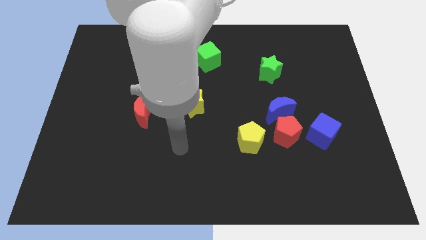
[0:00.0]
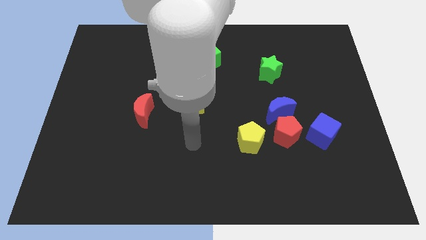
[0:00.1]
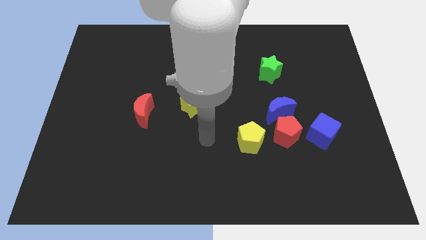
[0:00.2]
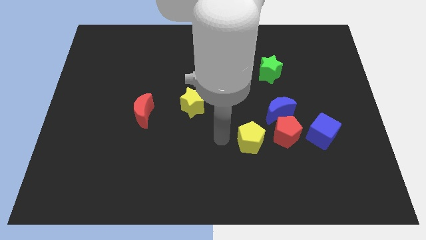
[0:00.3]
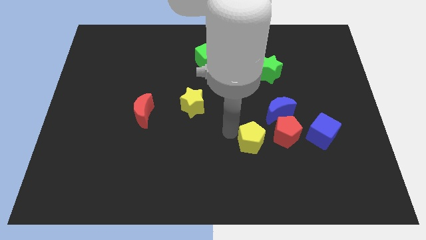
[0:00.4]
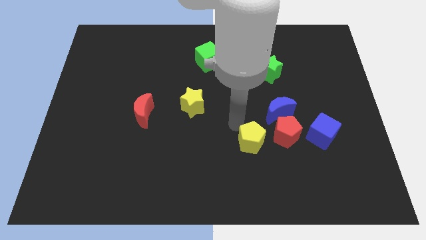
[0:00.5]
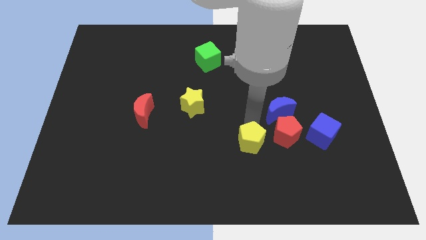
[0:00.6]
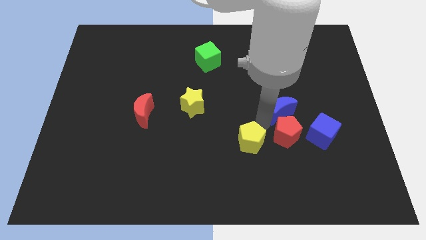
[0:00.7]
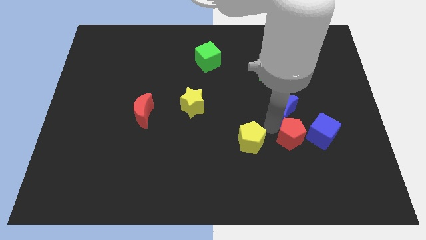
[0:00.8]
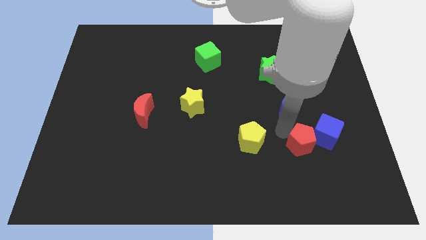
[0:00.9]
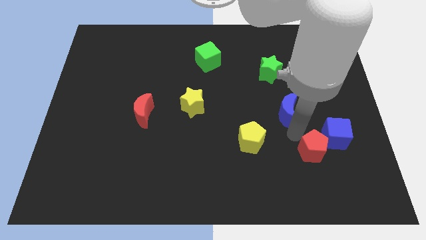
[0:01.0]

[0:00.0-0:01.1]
move the blue moon away from the red pentagon

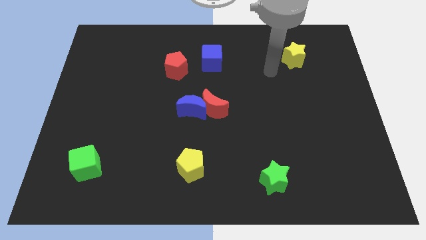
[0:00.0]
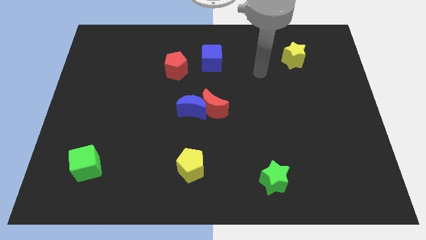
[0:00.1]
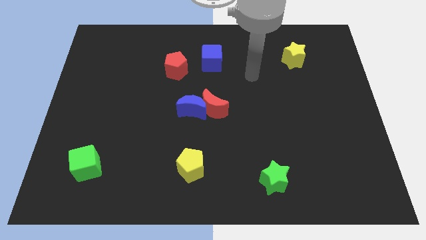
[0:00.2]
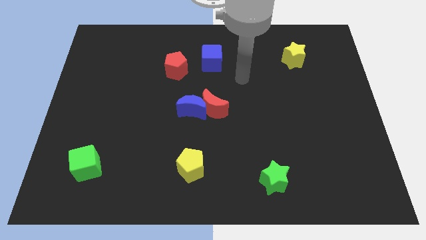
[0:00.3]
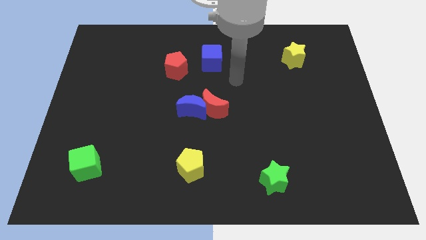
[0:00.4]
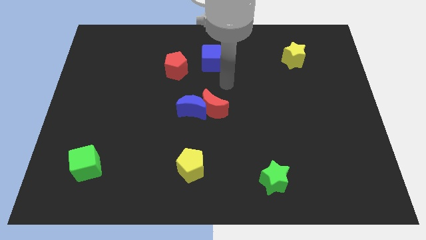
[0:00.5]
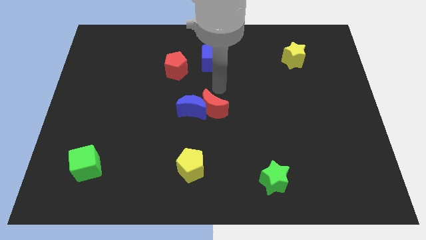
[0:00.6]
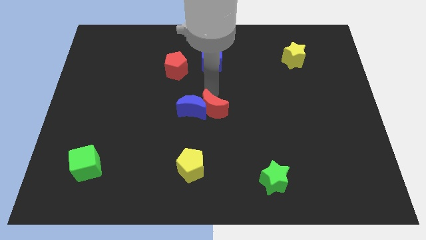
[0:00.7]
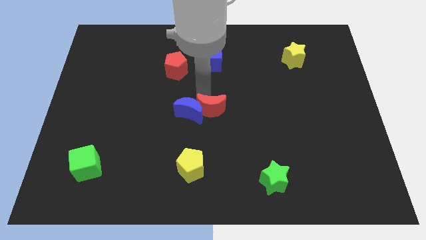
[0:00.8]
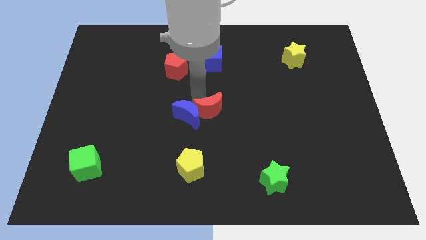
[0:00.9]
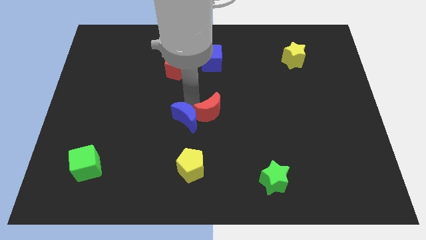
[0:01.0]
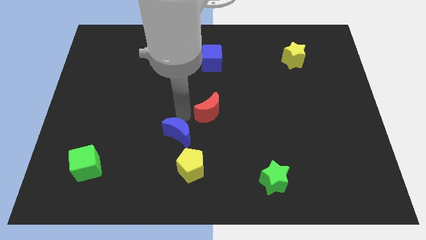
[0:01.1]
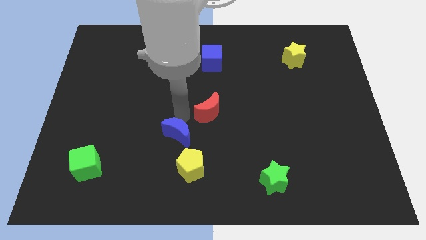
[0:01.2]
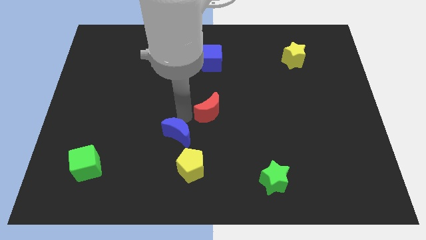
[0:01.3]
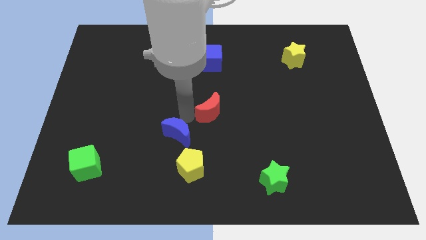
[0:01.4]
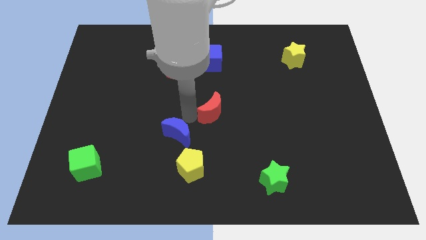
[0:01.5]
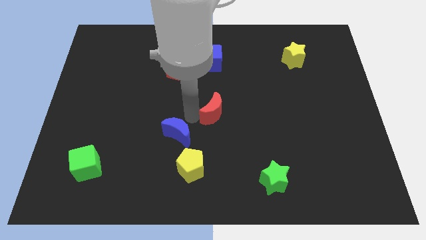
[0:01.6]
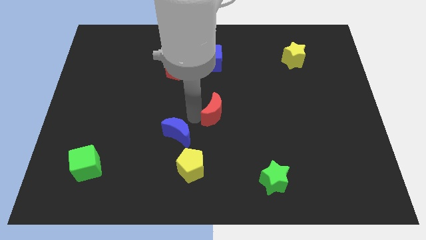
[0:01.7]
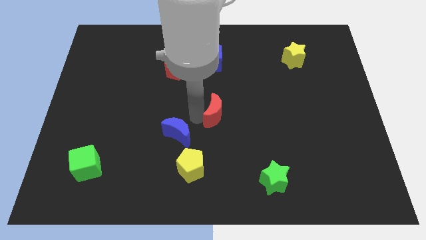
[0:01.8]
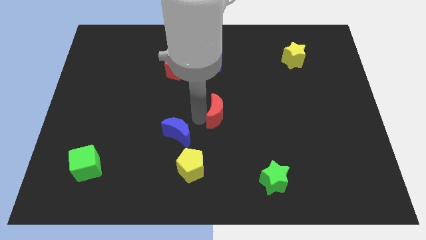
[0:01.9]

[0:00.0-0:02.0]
move the red moon away from the blue moon

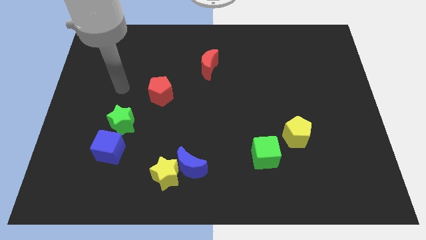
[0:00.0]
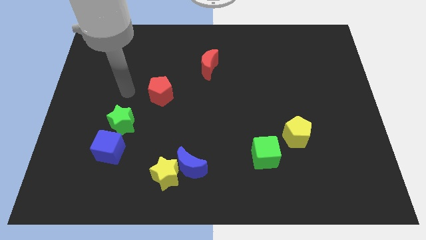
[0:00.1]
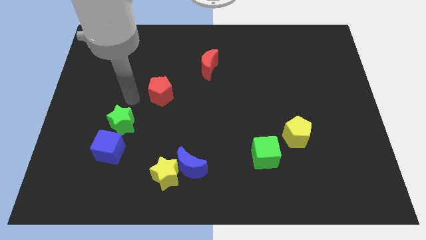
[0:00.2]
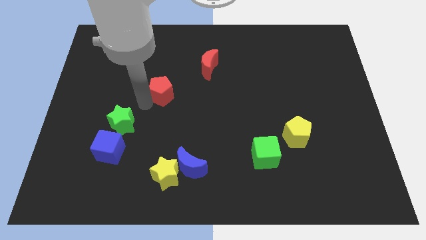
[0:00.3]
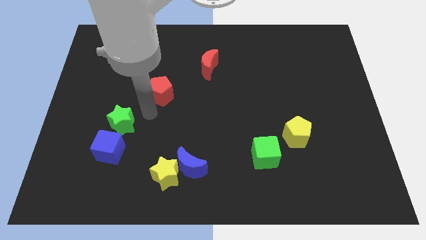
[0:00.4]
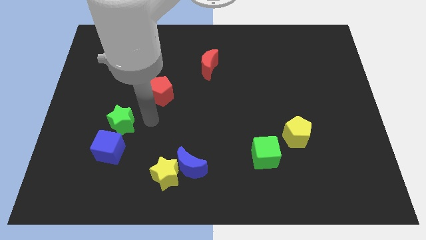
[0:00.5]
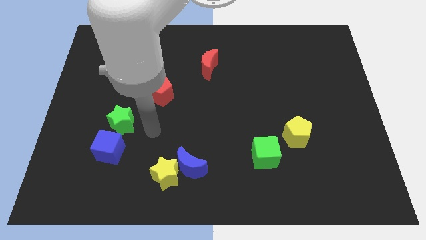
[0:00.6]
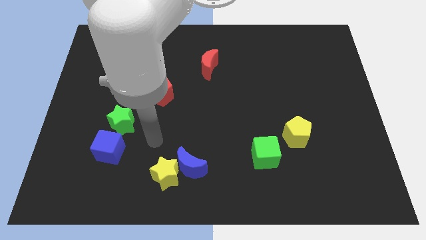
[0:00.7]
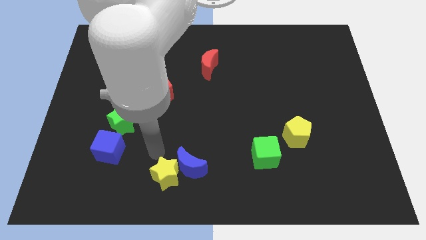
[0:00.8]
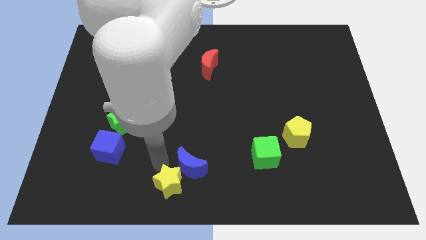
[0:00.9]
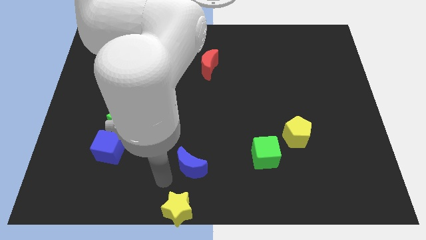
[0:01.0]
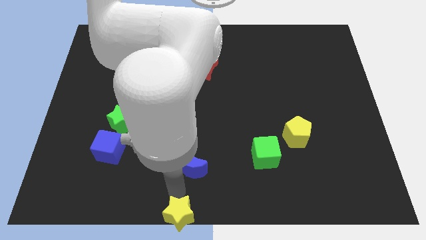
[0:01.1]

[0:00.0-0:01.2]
pull the blue moon apart from the yellow star

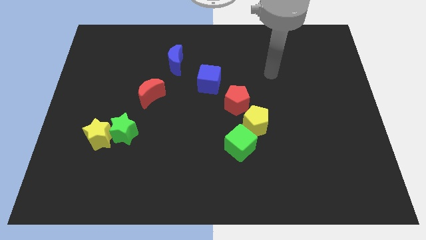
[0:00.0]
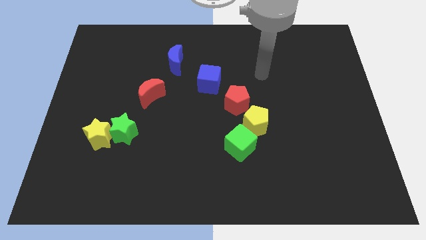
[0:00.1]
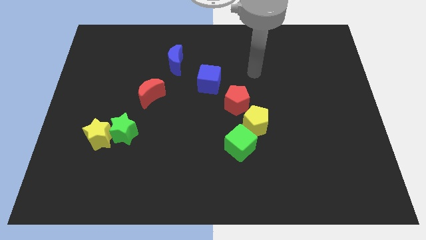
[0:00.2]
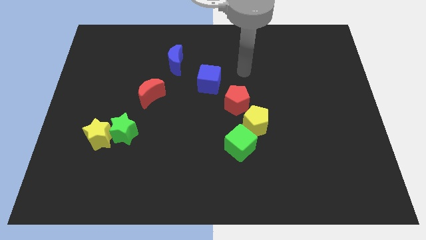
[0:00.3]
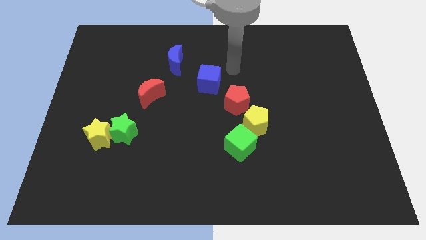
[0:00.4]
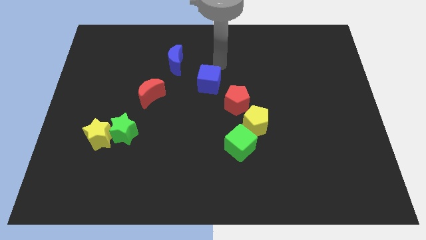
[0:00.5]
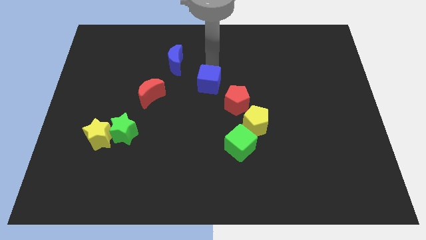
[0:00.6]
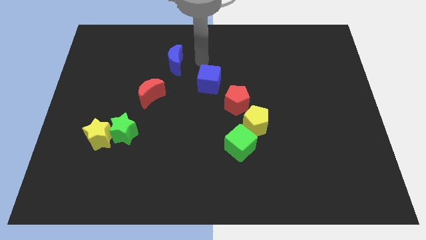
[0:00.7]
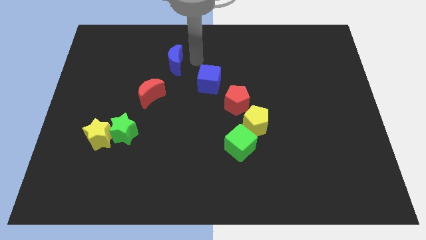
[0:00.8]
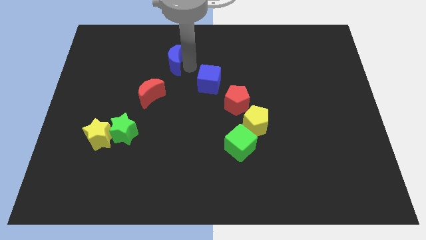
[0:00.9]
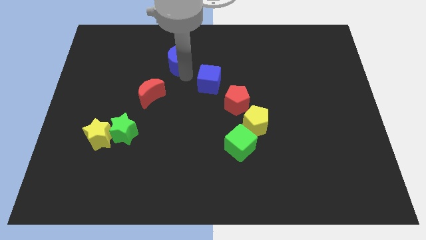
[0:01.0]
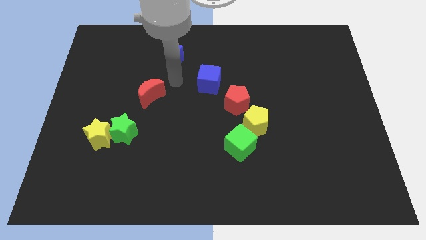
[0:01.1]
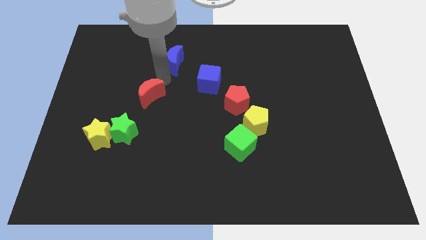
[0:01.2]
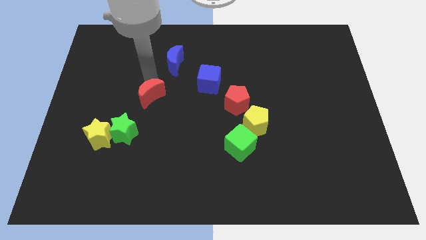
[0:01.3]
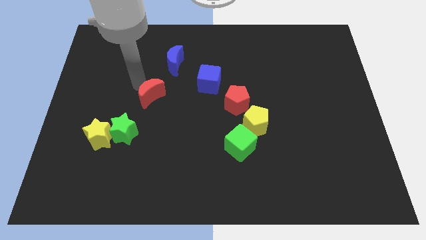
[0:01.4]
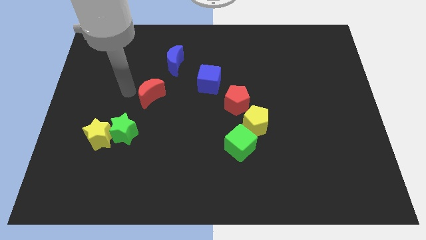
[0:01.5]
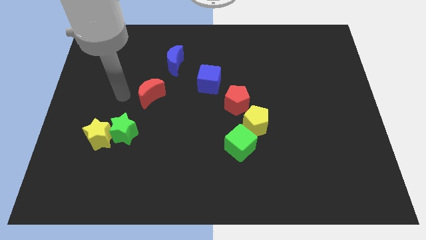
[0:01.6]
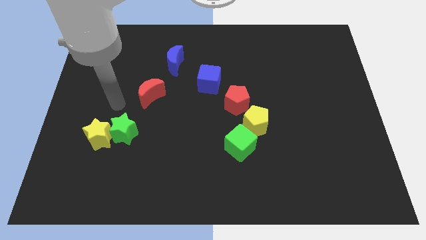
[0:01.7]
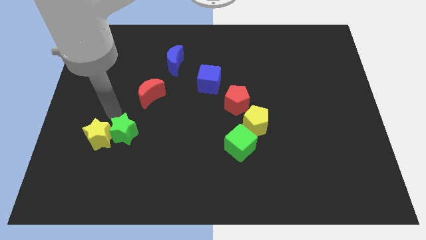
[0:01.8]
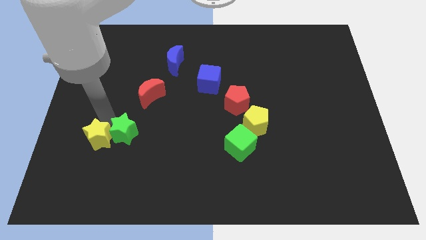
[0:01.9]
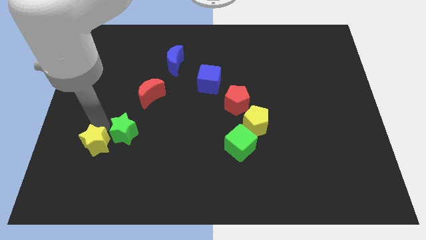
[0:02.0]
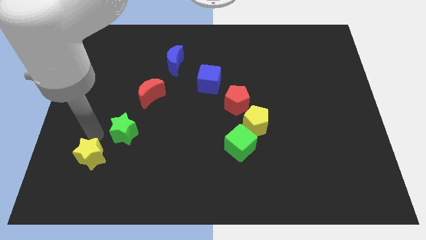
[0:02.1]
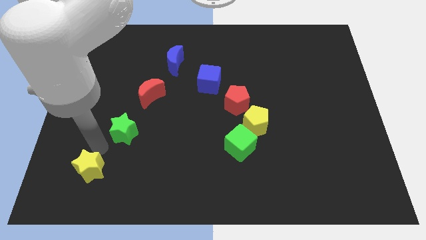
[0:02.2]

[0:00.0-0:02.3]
move the green star away from the yellow star

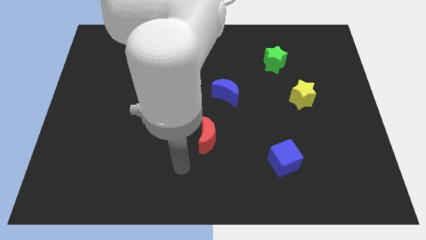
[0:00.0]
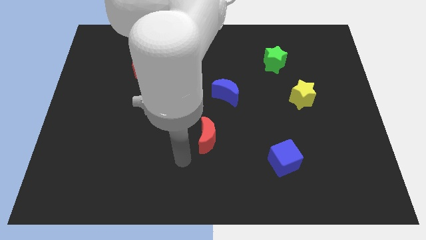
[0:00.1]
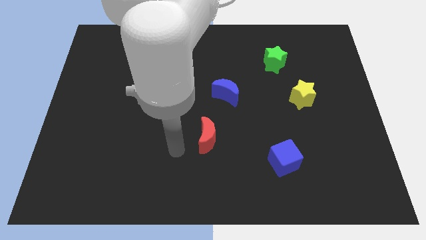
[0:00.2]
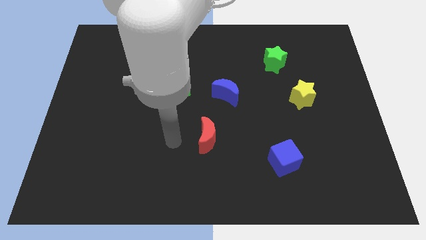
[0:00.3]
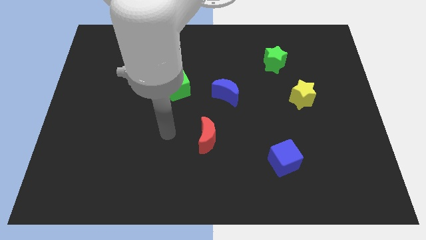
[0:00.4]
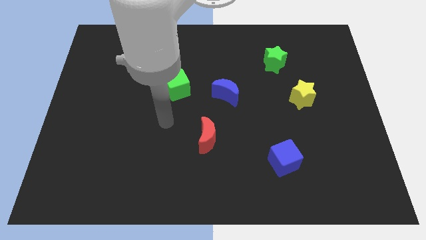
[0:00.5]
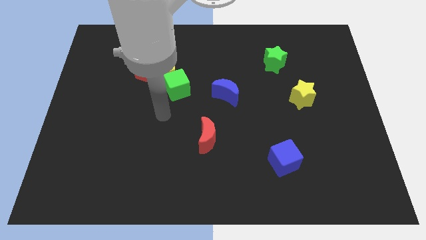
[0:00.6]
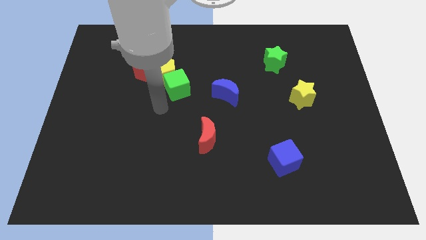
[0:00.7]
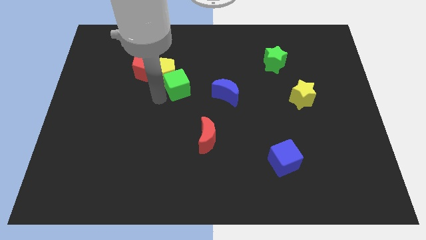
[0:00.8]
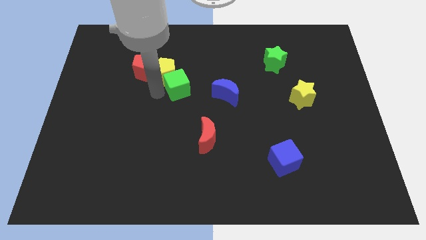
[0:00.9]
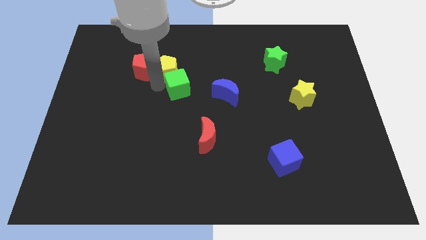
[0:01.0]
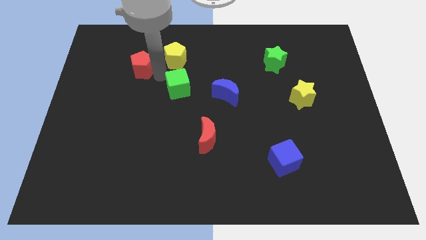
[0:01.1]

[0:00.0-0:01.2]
move the green cube away from the yellow pentagon

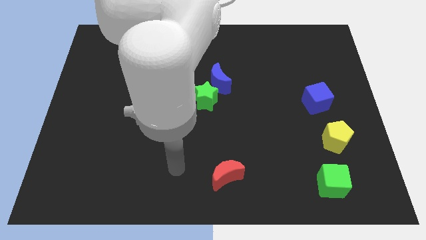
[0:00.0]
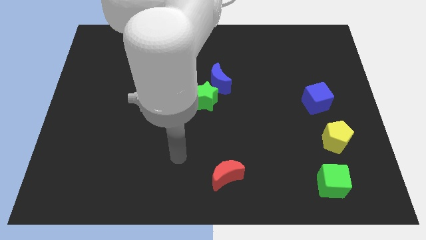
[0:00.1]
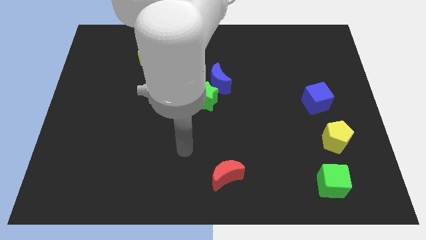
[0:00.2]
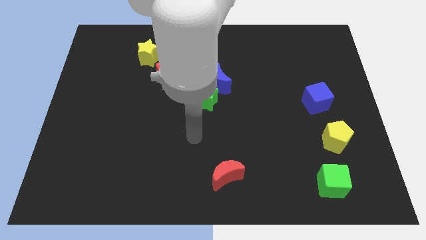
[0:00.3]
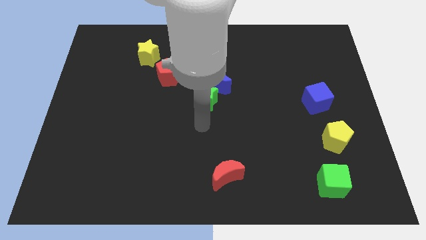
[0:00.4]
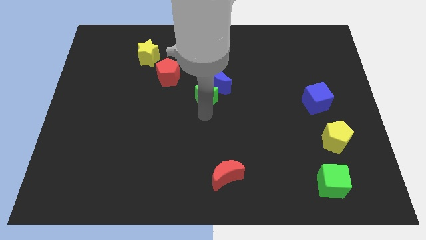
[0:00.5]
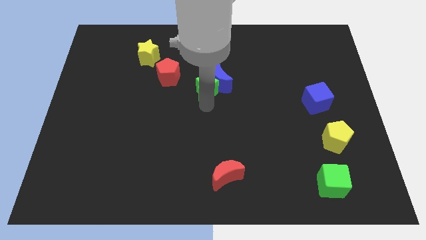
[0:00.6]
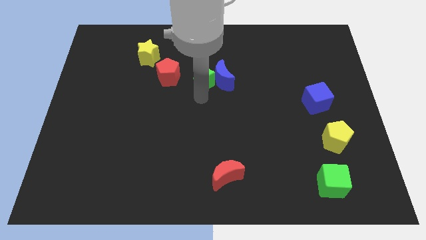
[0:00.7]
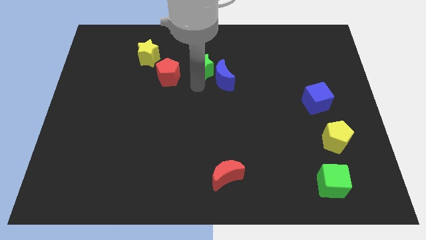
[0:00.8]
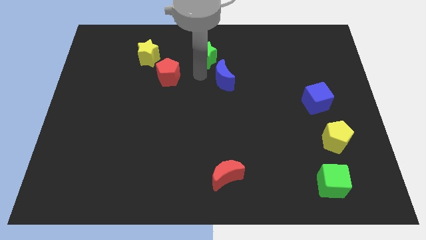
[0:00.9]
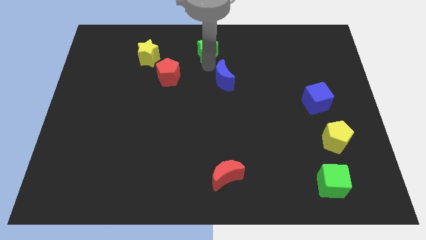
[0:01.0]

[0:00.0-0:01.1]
move the blue moon away from the green star

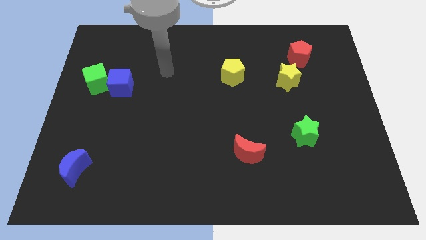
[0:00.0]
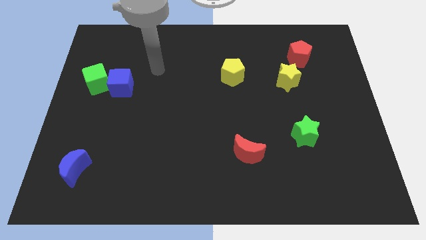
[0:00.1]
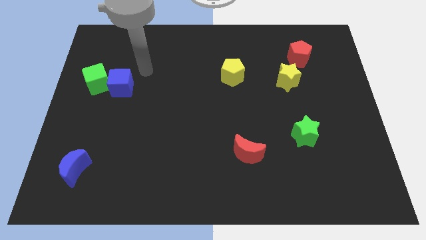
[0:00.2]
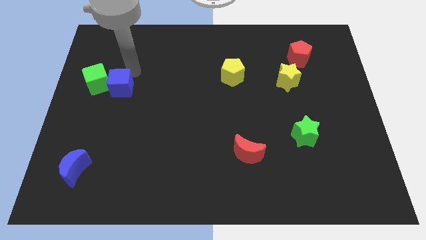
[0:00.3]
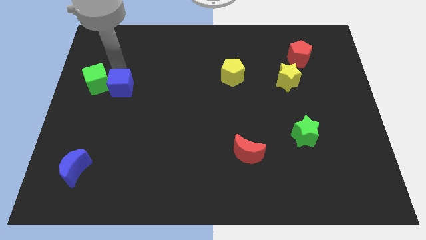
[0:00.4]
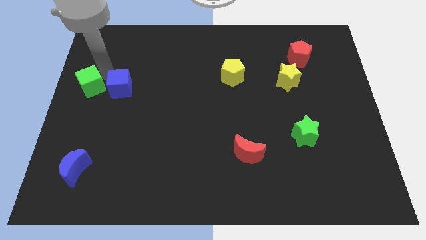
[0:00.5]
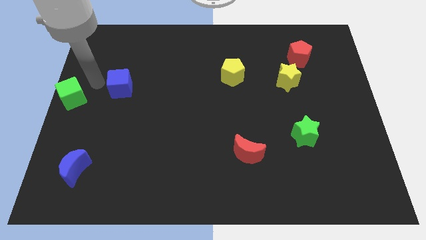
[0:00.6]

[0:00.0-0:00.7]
move the blue cube away from the green cube
